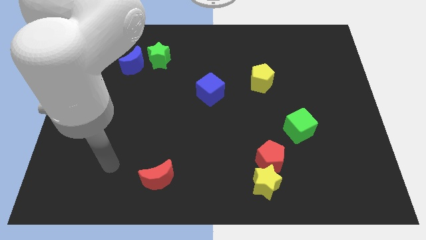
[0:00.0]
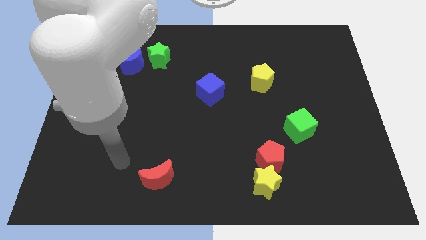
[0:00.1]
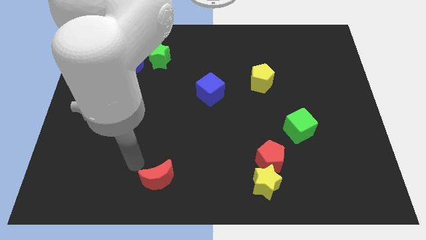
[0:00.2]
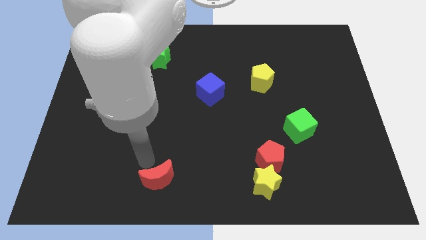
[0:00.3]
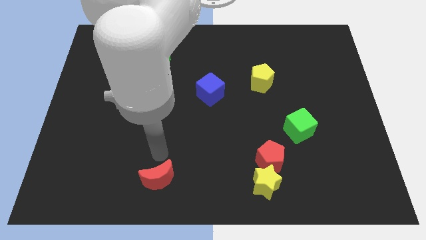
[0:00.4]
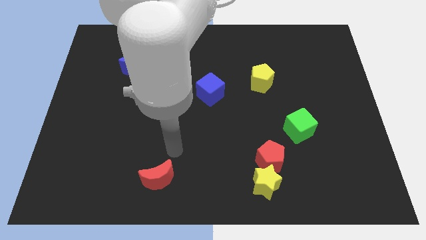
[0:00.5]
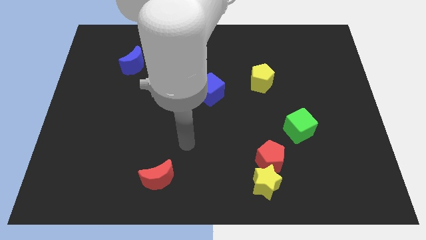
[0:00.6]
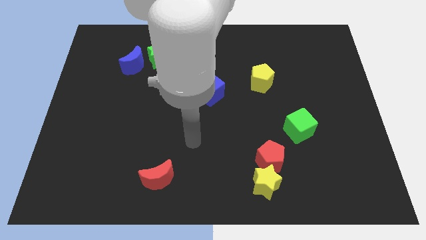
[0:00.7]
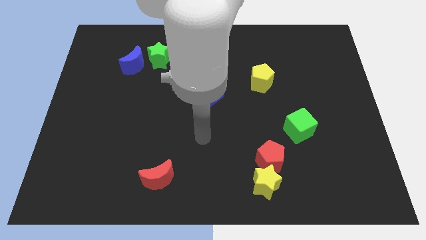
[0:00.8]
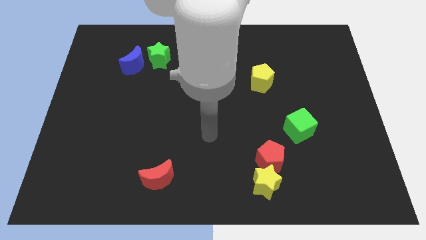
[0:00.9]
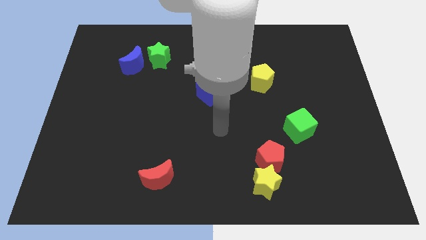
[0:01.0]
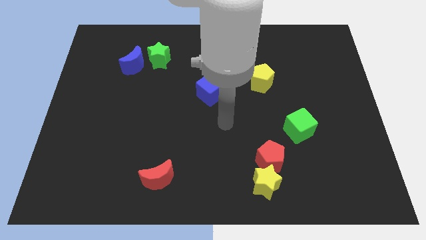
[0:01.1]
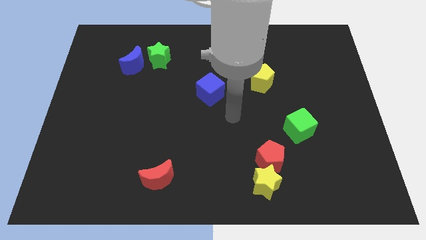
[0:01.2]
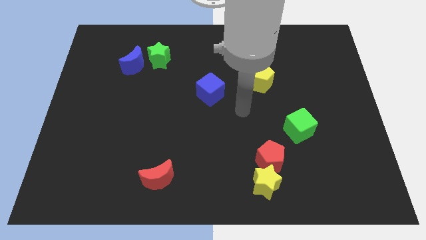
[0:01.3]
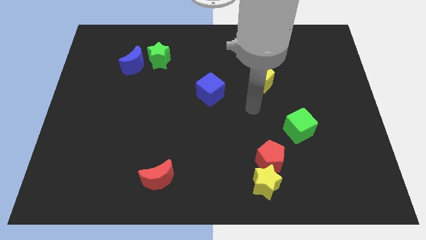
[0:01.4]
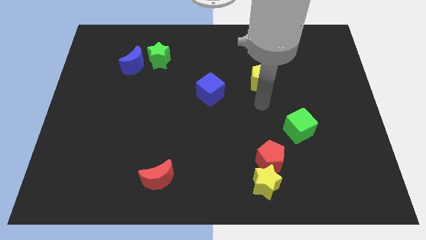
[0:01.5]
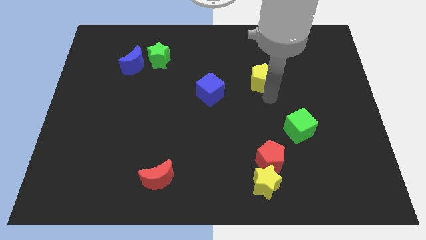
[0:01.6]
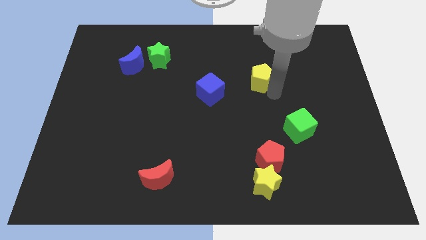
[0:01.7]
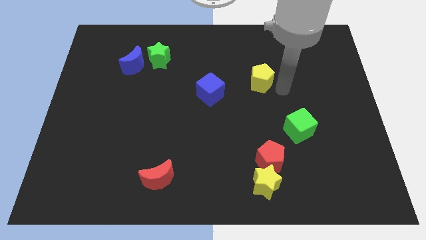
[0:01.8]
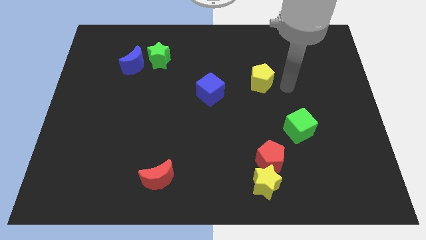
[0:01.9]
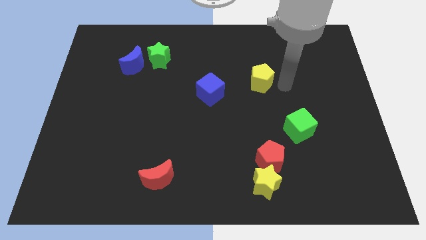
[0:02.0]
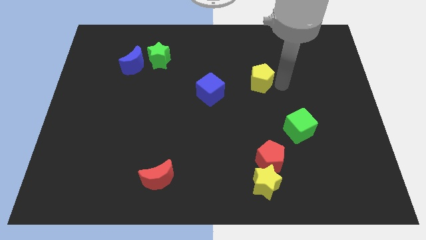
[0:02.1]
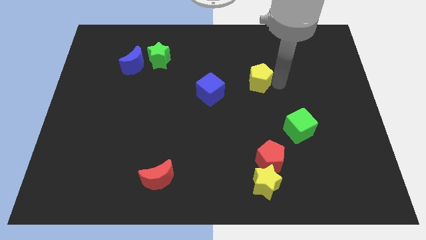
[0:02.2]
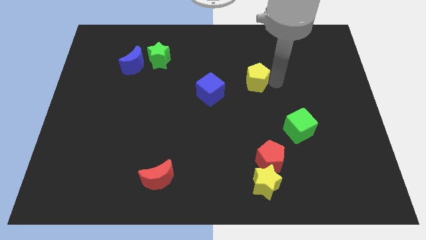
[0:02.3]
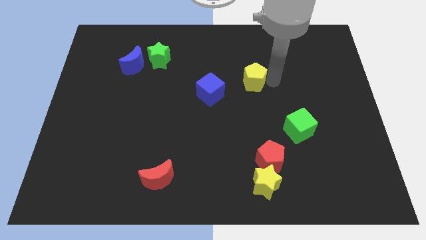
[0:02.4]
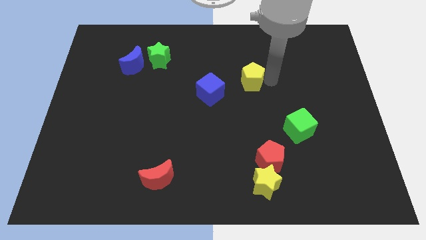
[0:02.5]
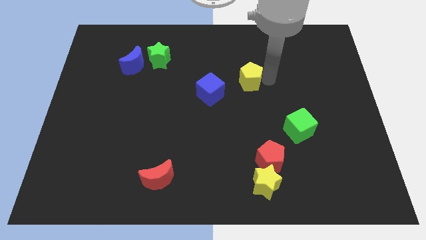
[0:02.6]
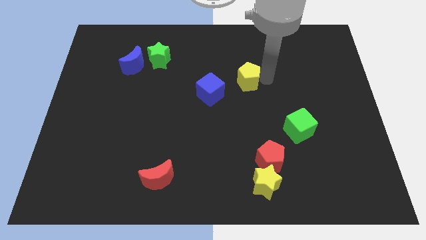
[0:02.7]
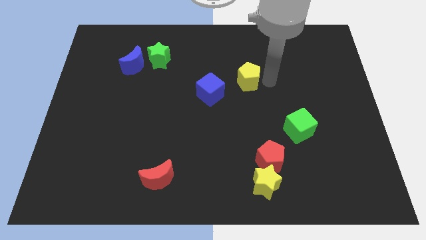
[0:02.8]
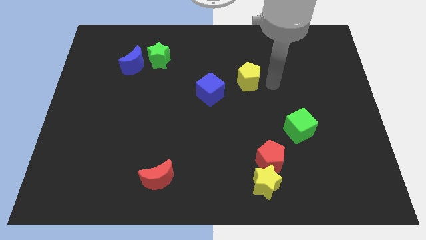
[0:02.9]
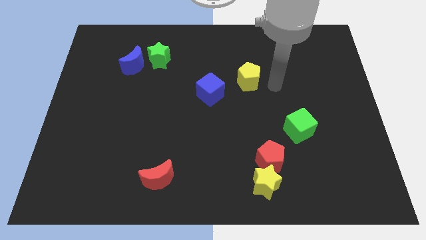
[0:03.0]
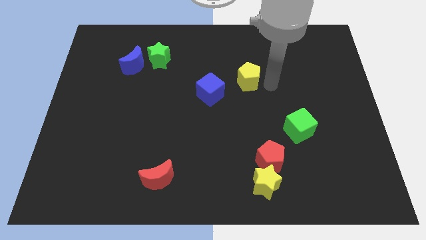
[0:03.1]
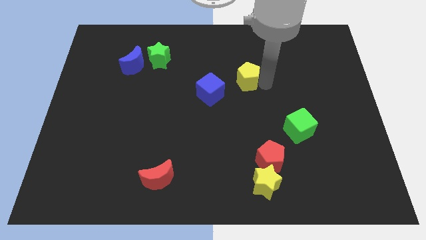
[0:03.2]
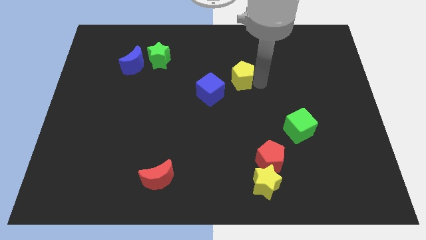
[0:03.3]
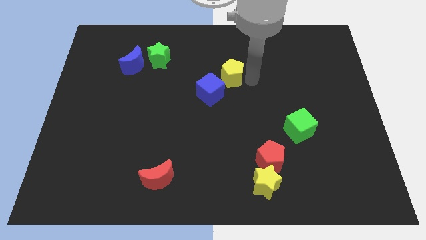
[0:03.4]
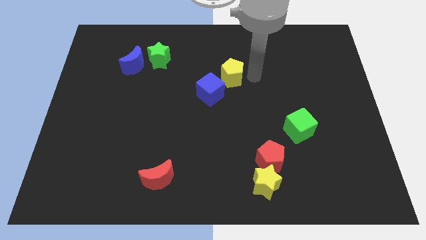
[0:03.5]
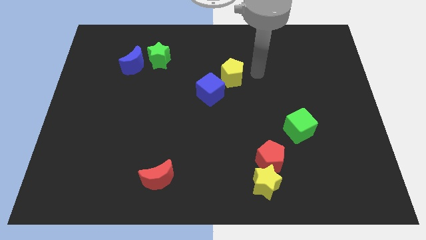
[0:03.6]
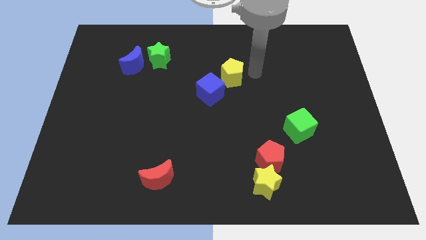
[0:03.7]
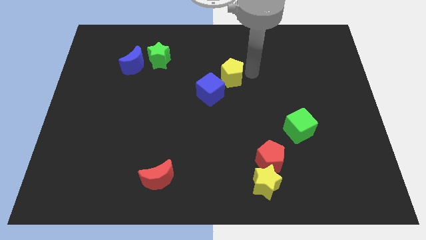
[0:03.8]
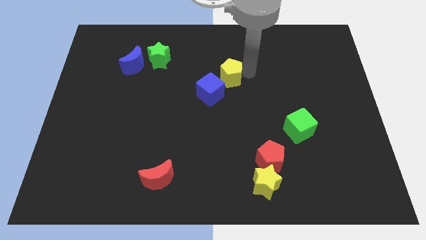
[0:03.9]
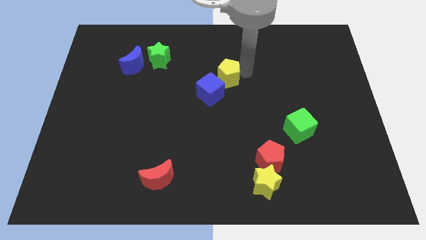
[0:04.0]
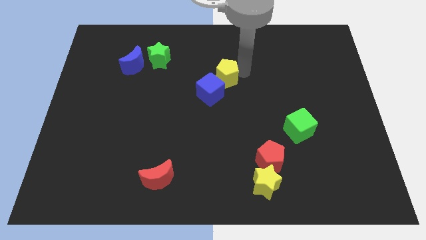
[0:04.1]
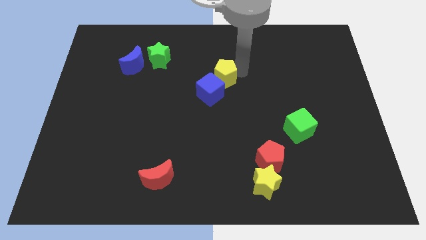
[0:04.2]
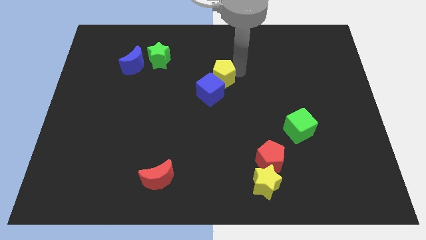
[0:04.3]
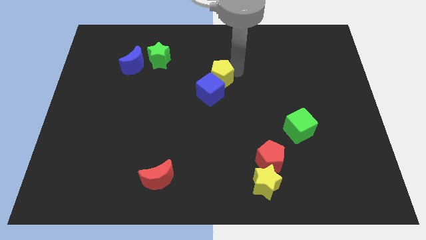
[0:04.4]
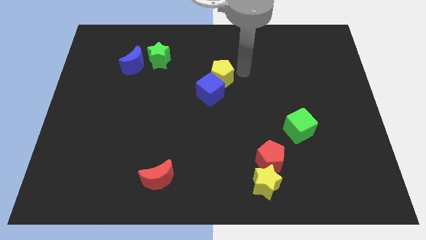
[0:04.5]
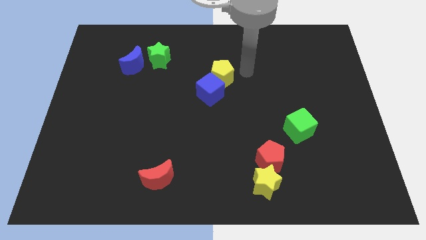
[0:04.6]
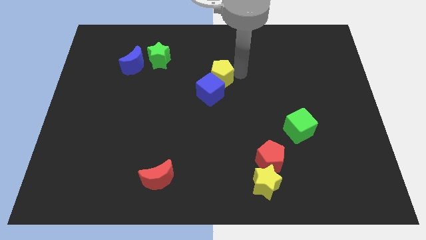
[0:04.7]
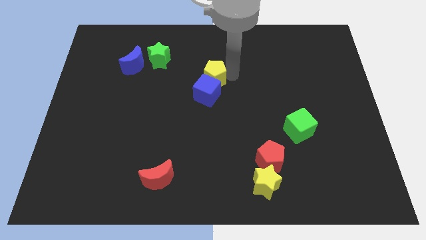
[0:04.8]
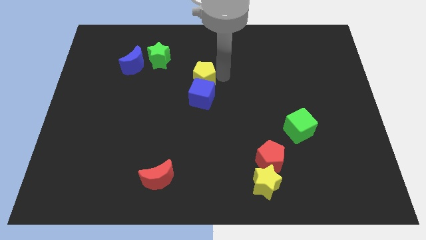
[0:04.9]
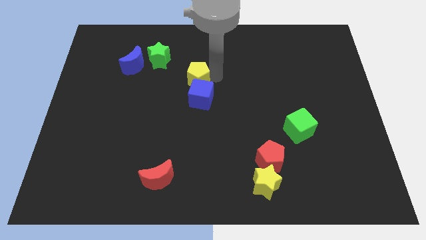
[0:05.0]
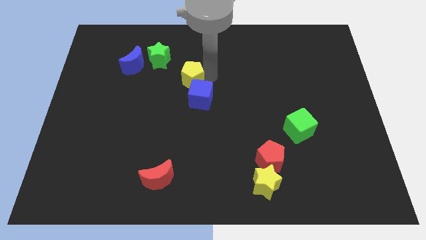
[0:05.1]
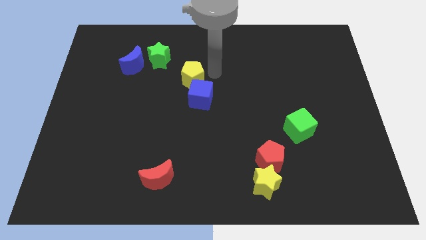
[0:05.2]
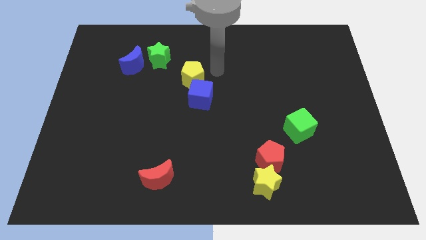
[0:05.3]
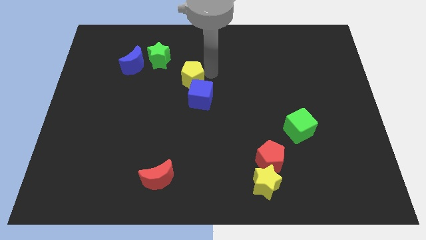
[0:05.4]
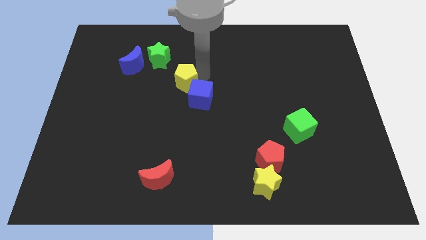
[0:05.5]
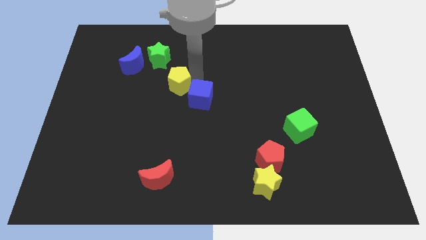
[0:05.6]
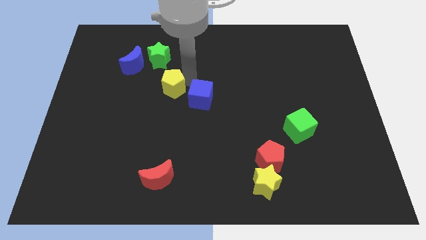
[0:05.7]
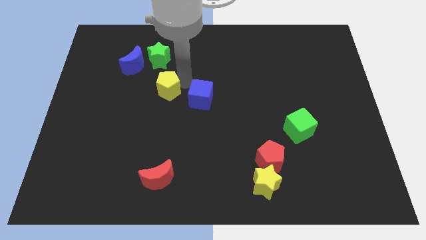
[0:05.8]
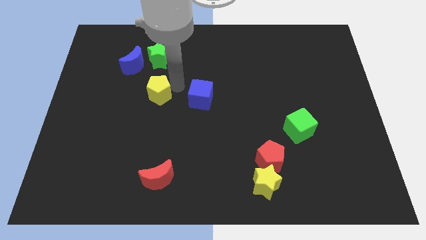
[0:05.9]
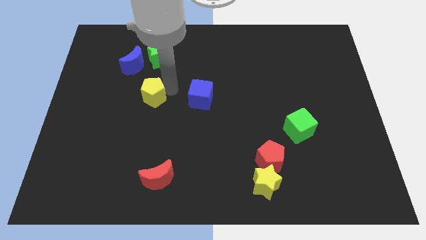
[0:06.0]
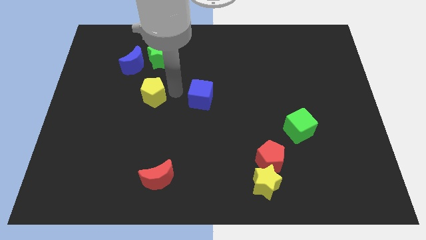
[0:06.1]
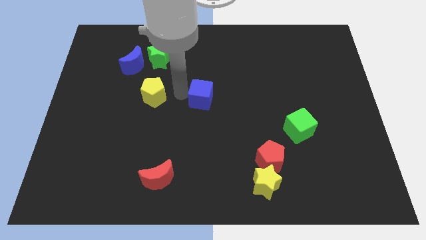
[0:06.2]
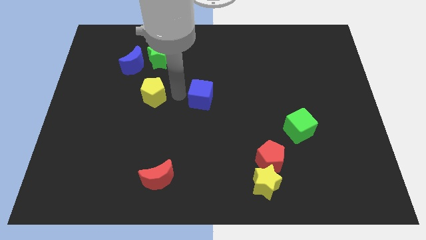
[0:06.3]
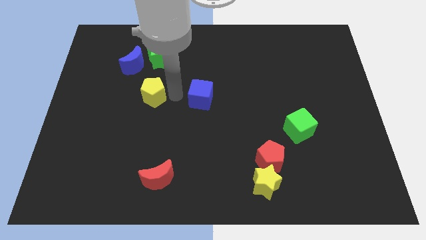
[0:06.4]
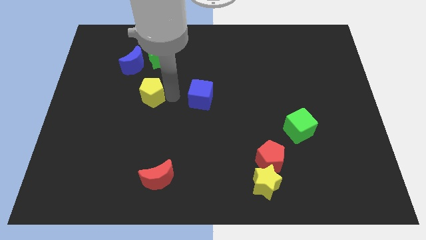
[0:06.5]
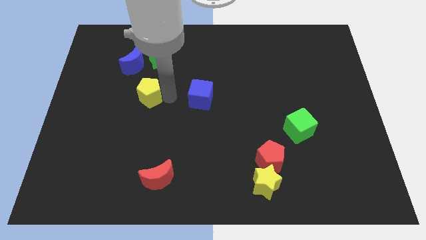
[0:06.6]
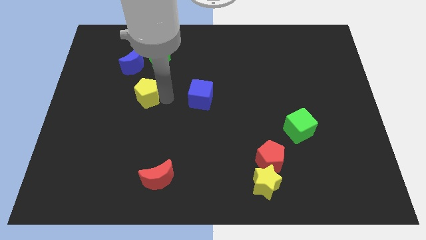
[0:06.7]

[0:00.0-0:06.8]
slide the yellow pentagon below the blue moon
